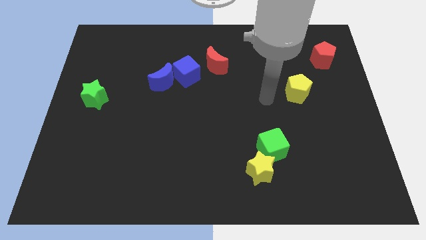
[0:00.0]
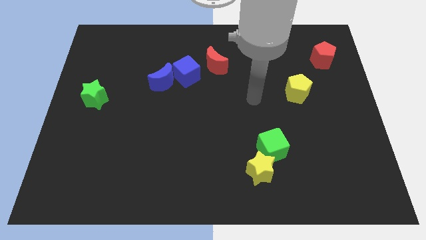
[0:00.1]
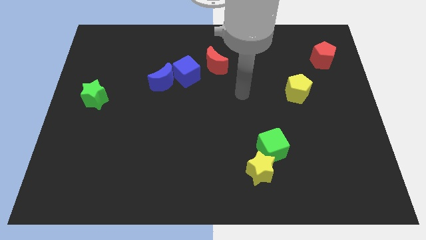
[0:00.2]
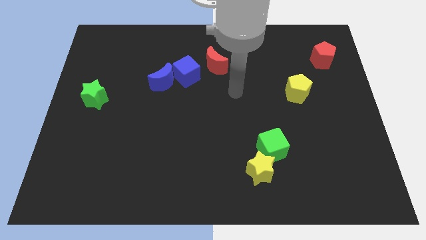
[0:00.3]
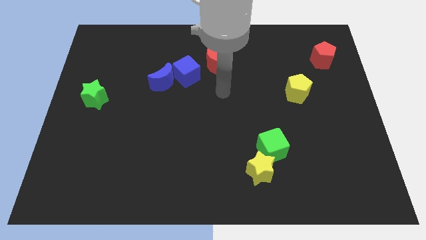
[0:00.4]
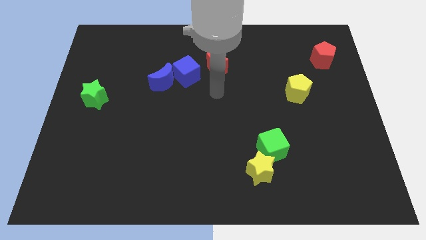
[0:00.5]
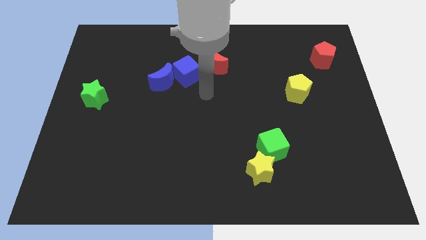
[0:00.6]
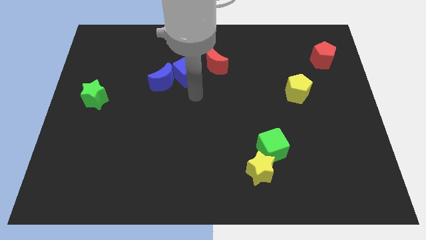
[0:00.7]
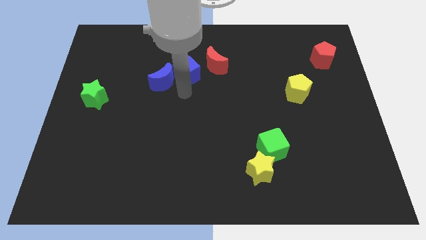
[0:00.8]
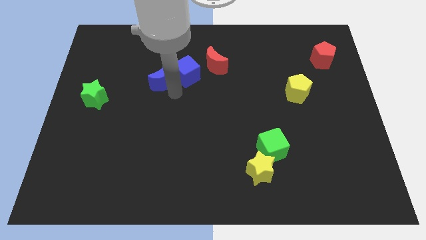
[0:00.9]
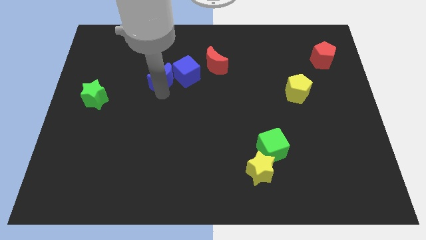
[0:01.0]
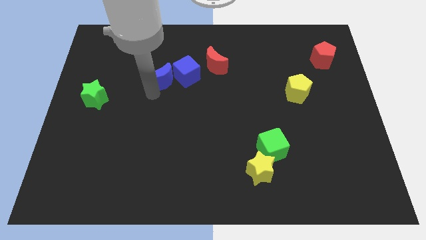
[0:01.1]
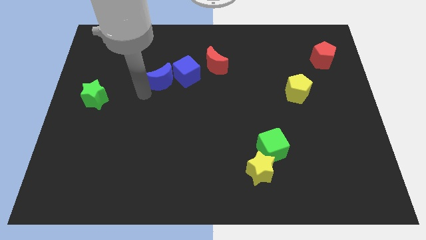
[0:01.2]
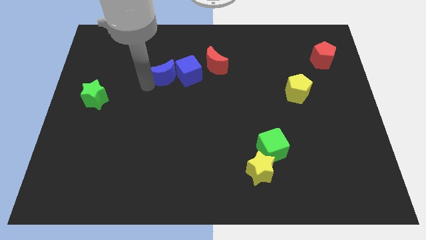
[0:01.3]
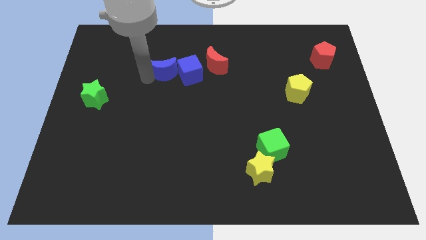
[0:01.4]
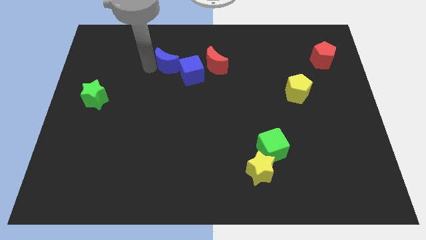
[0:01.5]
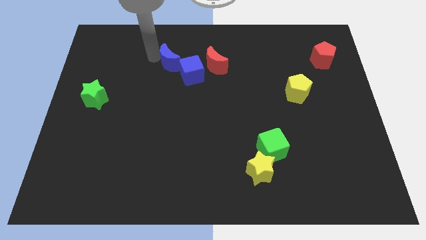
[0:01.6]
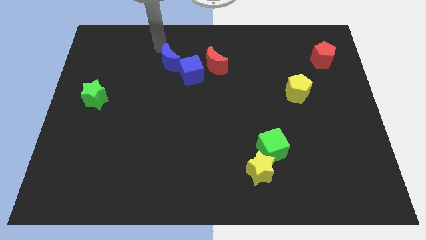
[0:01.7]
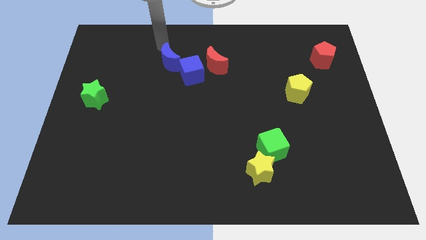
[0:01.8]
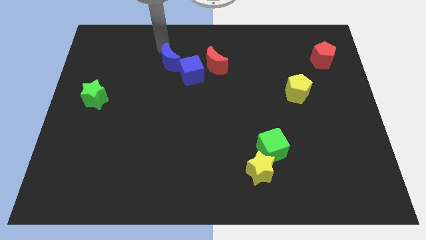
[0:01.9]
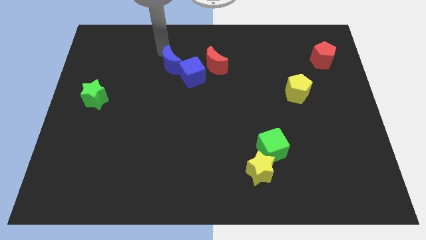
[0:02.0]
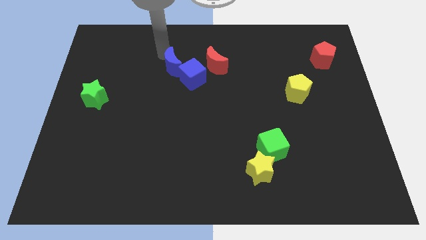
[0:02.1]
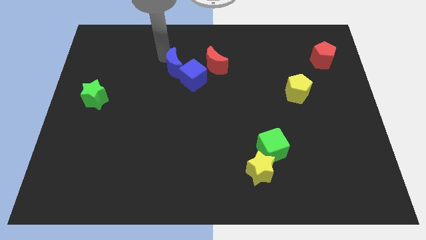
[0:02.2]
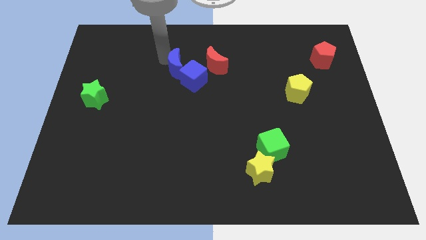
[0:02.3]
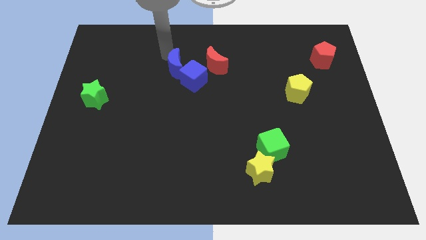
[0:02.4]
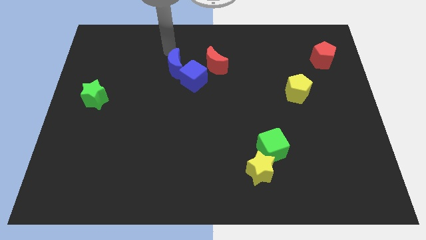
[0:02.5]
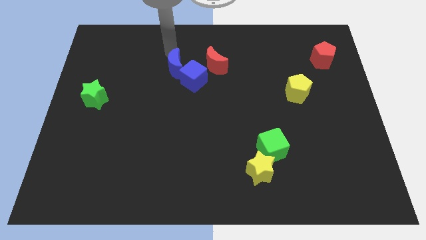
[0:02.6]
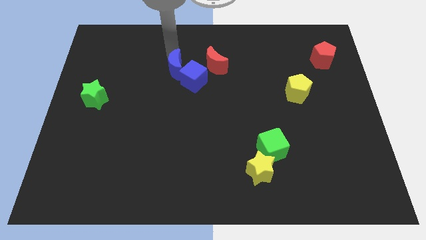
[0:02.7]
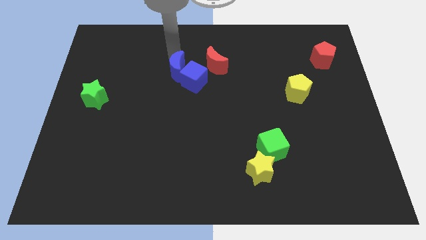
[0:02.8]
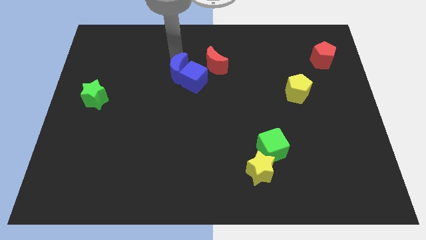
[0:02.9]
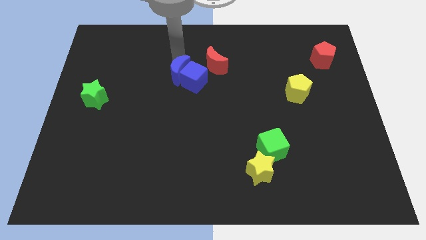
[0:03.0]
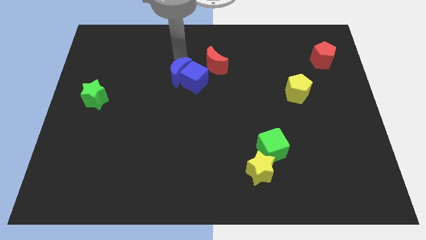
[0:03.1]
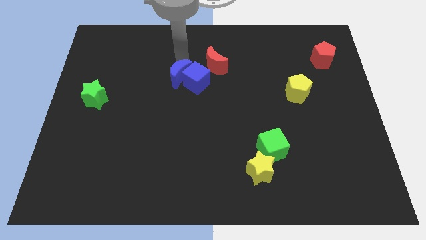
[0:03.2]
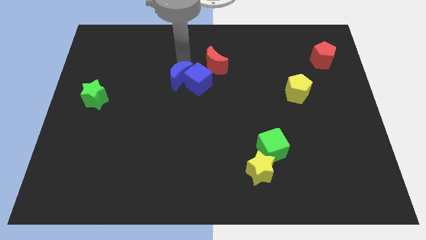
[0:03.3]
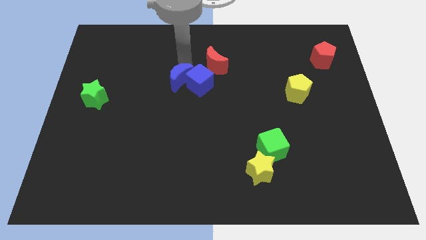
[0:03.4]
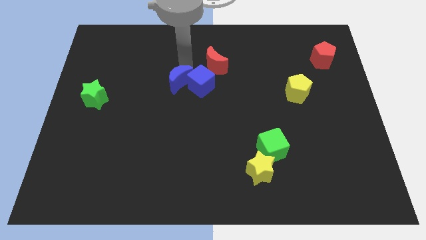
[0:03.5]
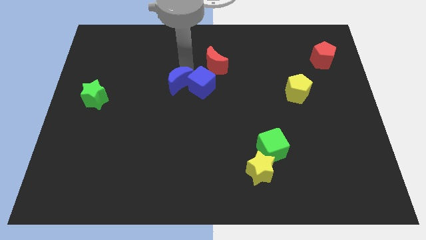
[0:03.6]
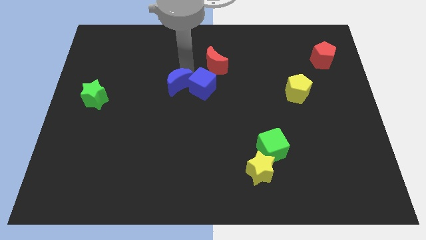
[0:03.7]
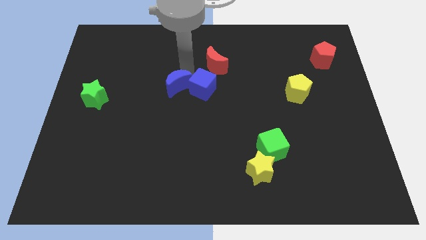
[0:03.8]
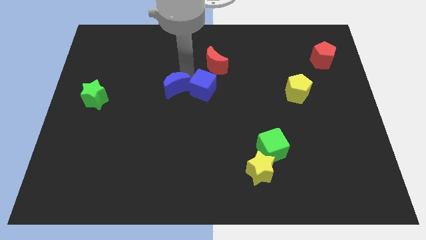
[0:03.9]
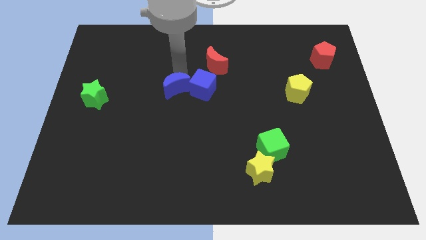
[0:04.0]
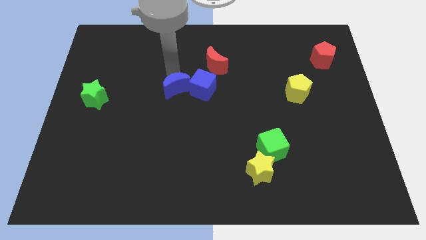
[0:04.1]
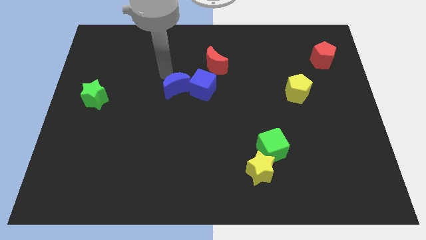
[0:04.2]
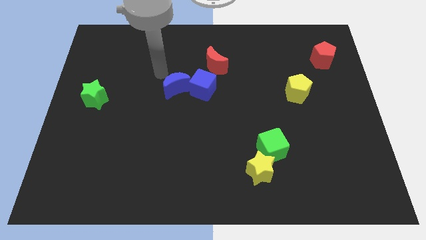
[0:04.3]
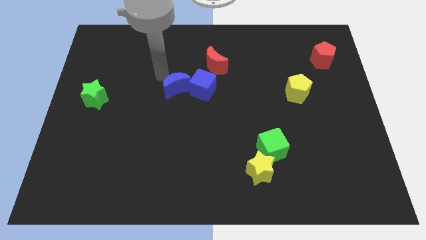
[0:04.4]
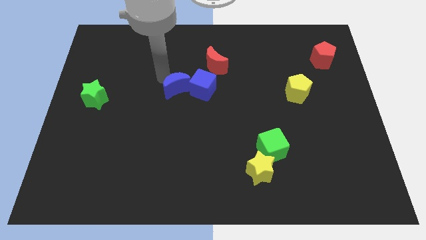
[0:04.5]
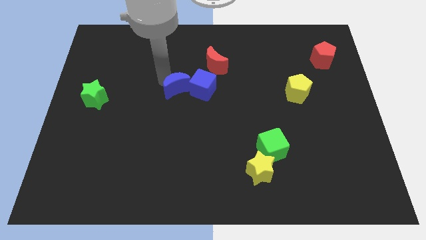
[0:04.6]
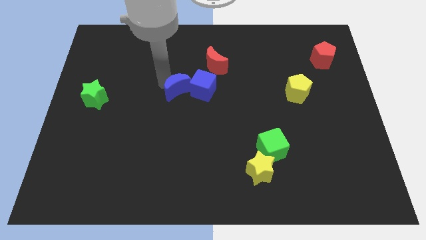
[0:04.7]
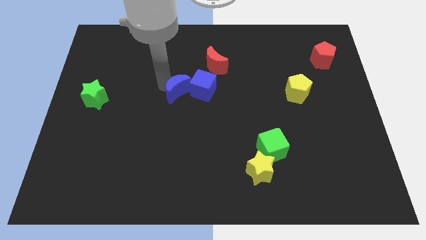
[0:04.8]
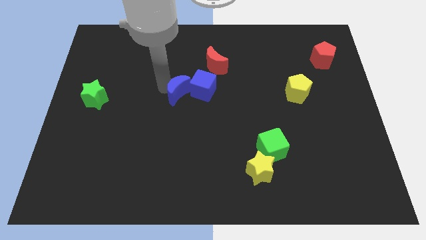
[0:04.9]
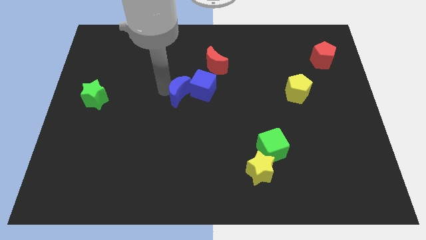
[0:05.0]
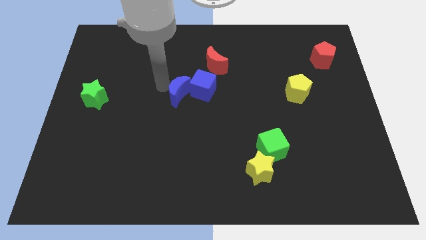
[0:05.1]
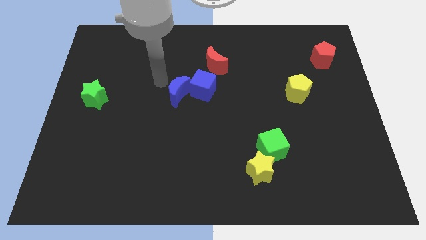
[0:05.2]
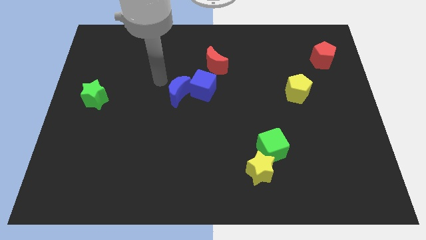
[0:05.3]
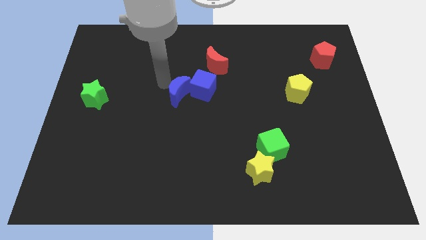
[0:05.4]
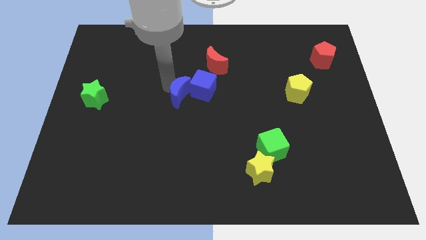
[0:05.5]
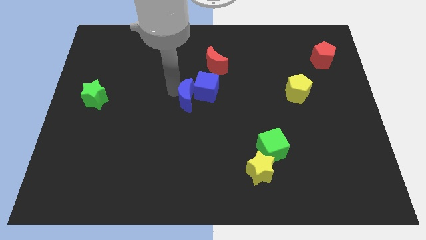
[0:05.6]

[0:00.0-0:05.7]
move the blue moon diagonally down and to the right a bit

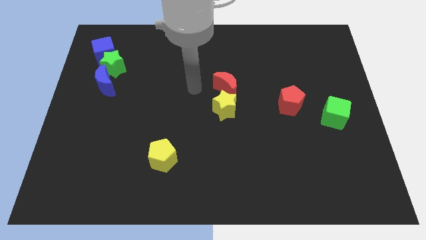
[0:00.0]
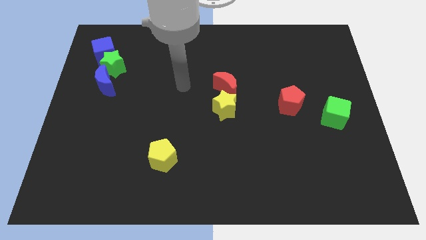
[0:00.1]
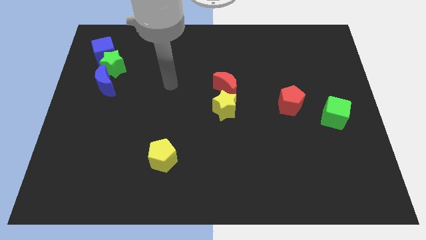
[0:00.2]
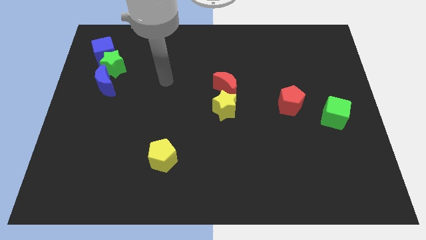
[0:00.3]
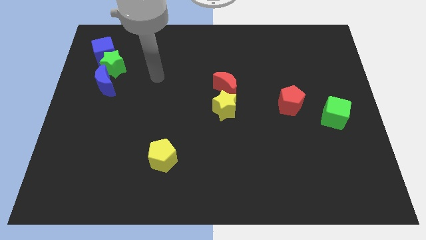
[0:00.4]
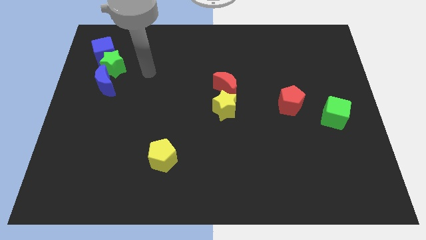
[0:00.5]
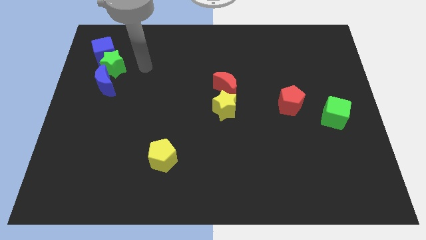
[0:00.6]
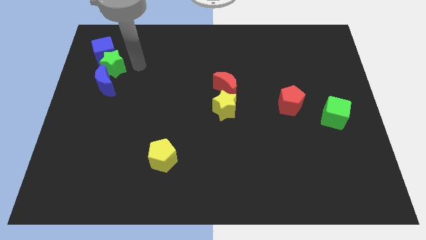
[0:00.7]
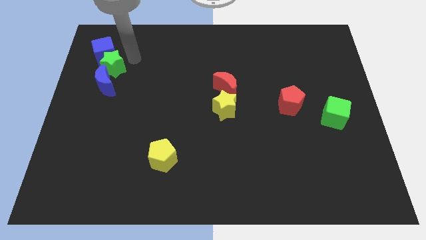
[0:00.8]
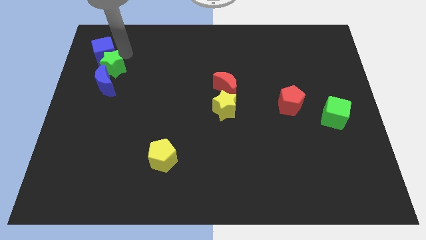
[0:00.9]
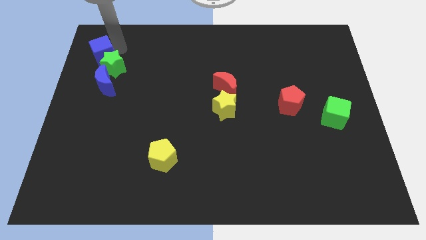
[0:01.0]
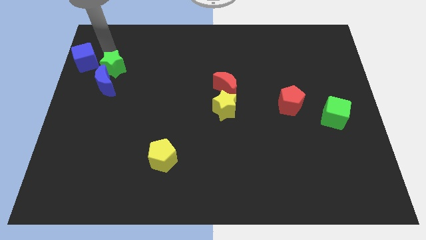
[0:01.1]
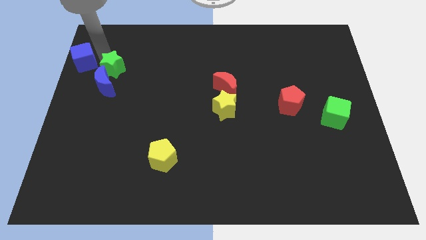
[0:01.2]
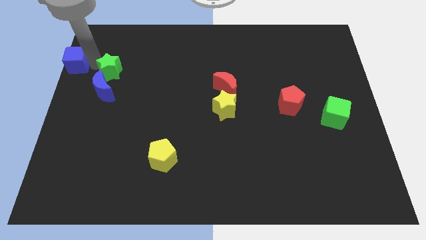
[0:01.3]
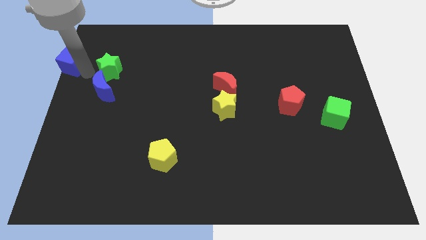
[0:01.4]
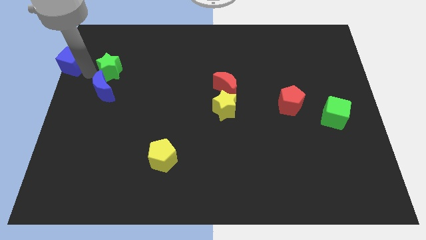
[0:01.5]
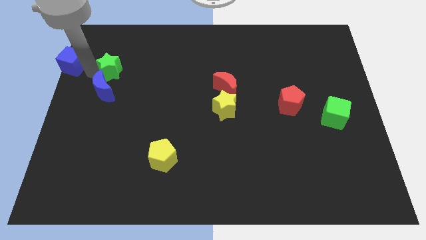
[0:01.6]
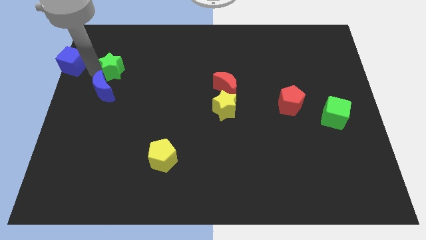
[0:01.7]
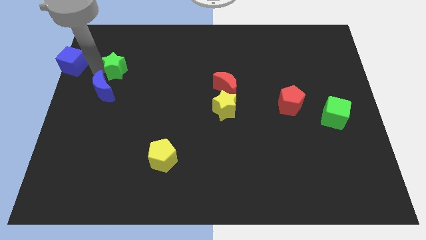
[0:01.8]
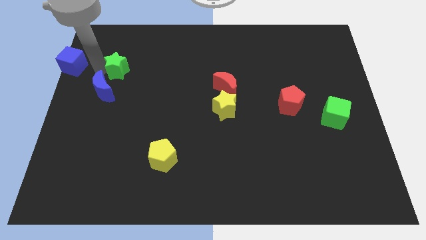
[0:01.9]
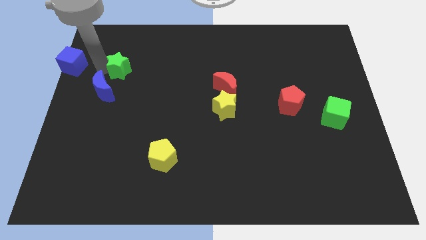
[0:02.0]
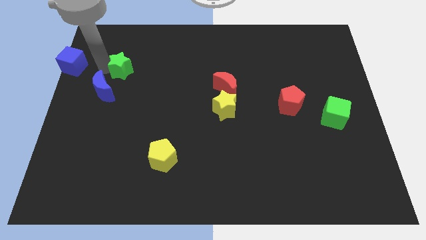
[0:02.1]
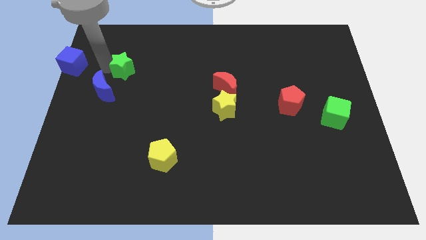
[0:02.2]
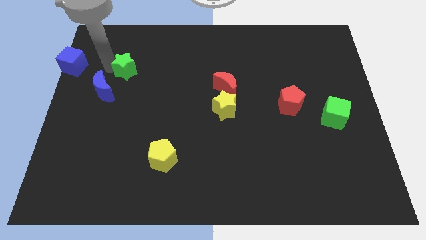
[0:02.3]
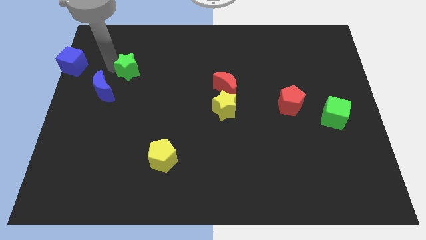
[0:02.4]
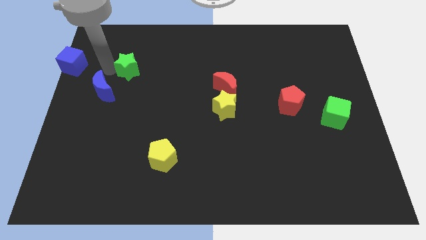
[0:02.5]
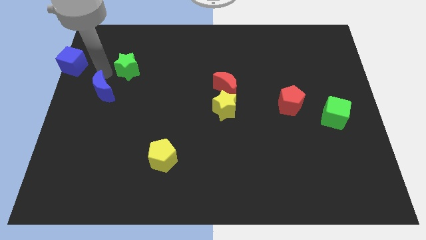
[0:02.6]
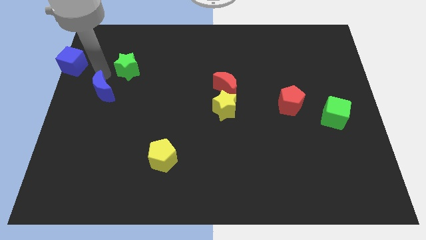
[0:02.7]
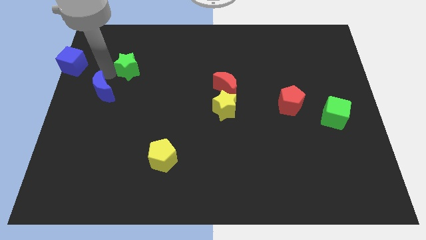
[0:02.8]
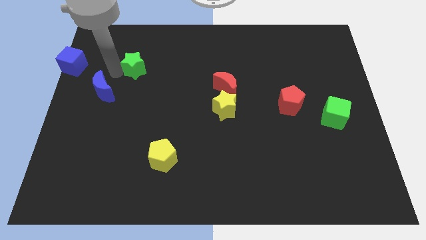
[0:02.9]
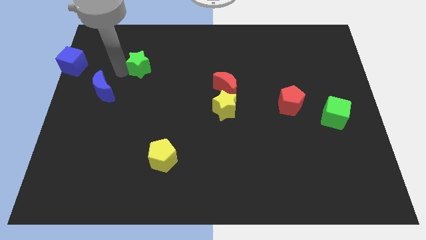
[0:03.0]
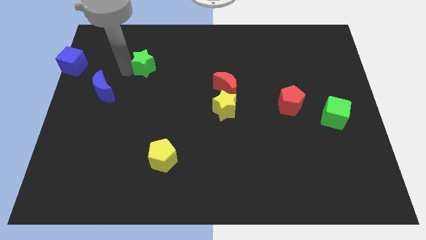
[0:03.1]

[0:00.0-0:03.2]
slightly push the green star right
